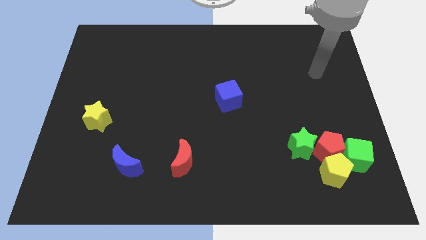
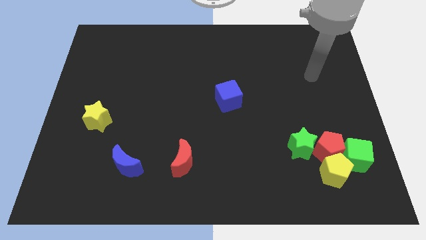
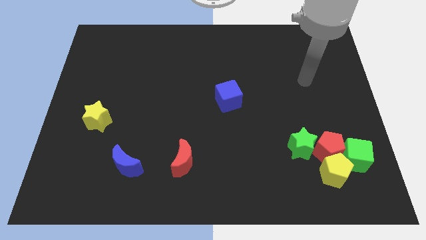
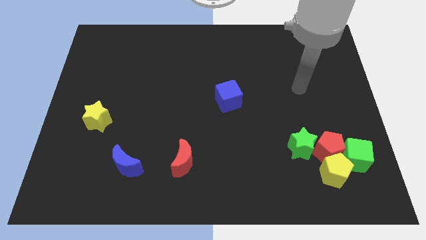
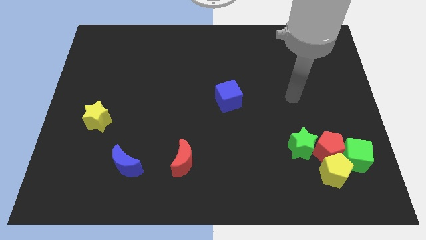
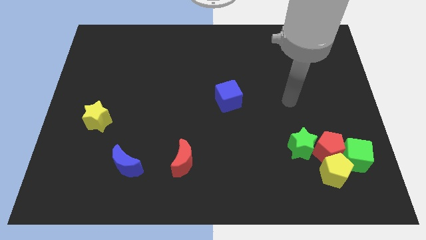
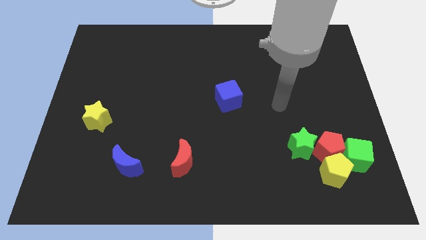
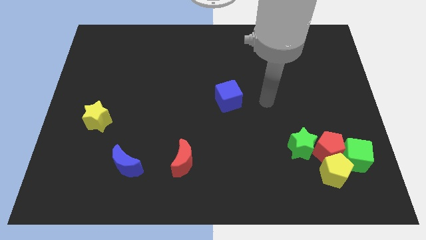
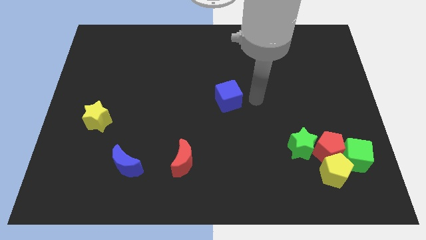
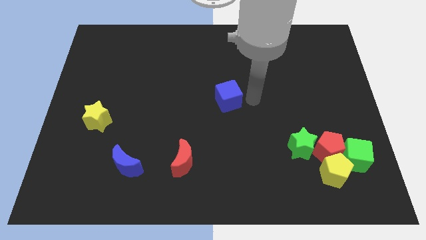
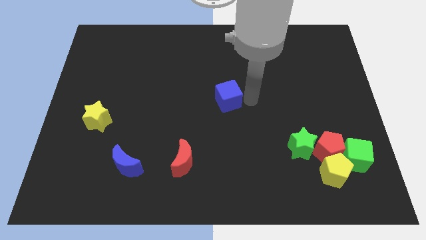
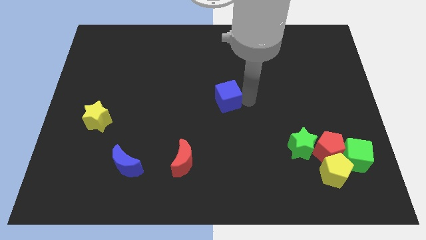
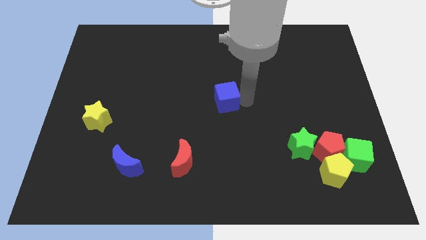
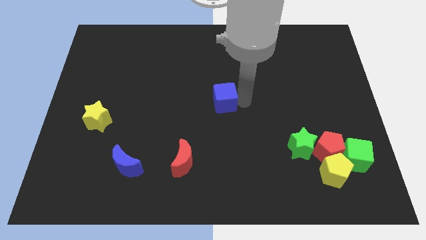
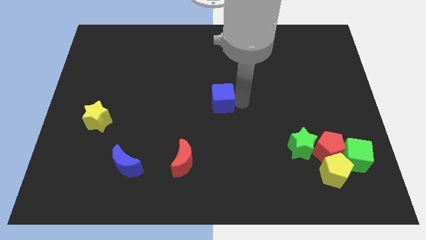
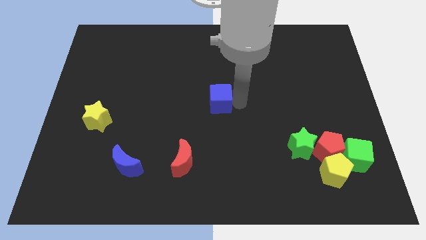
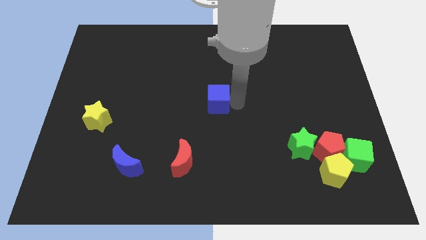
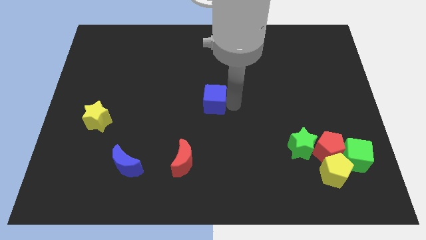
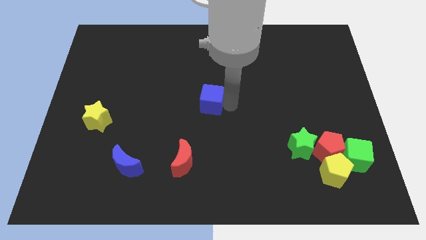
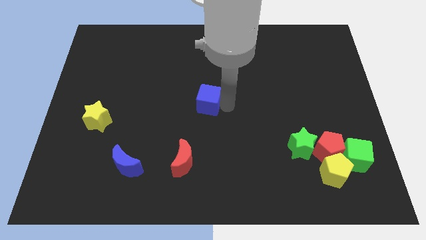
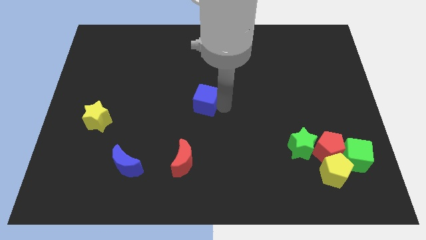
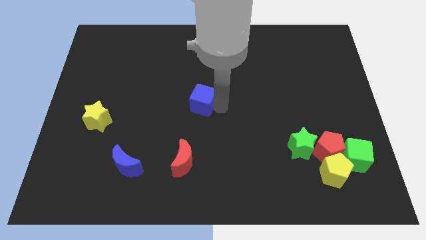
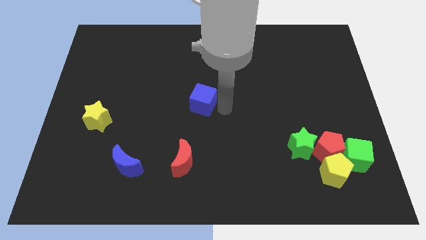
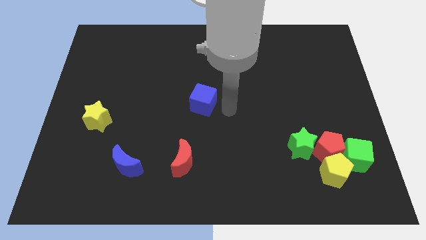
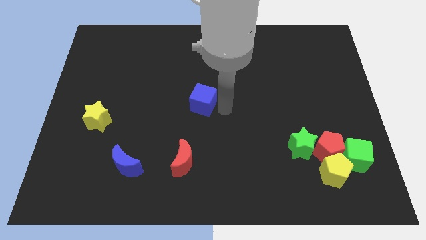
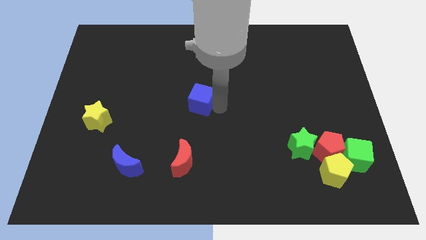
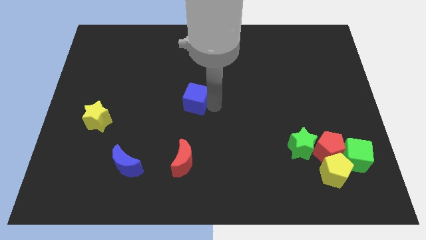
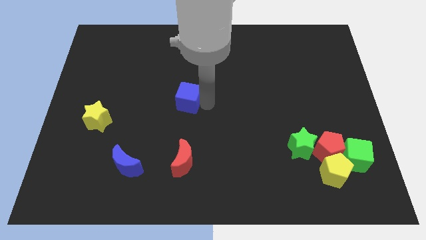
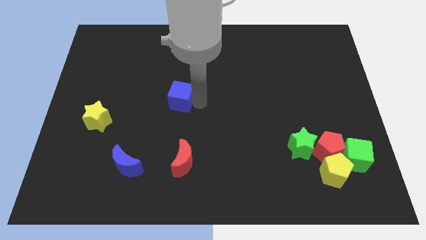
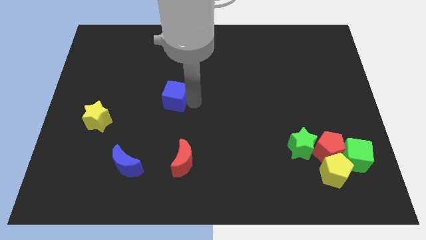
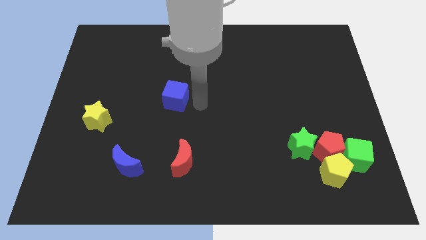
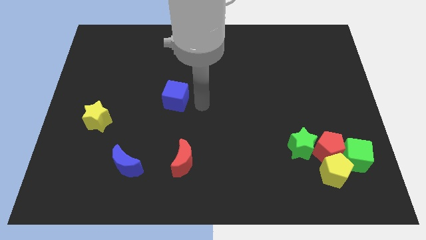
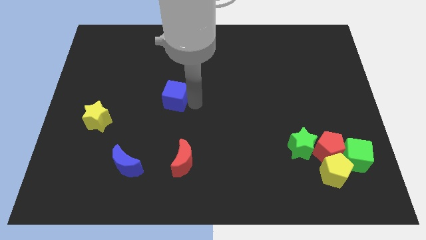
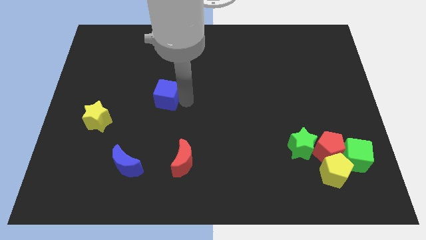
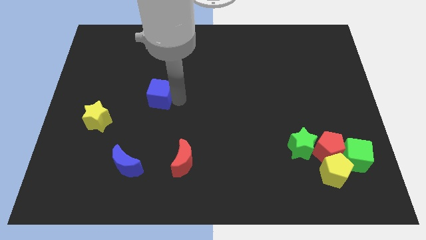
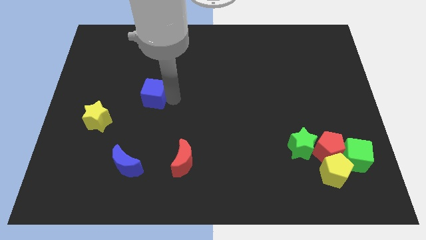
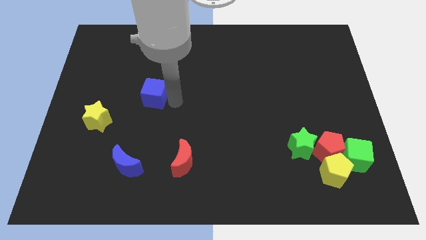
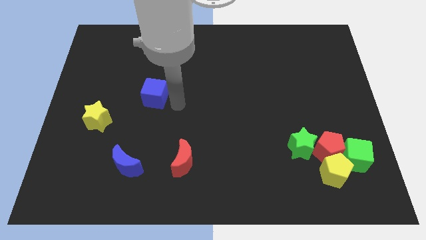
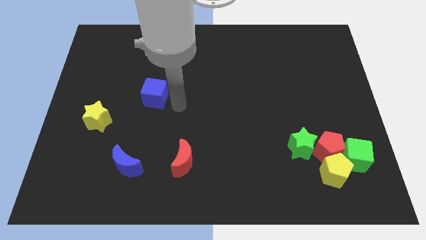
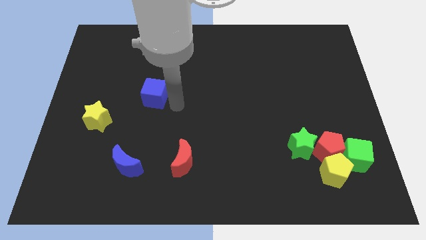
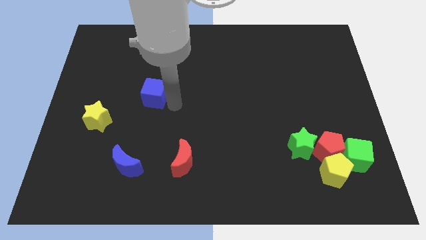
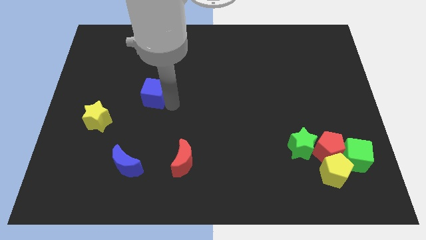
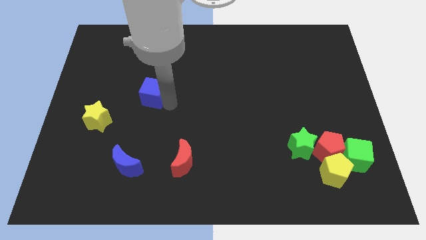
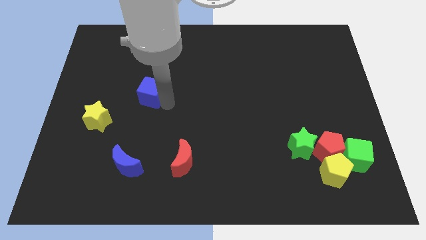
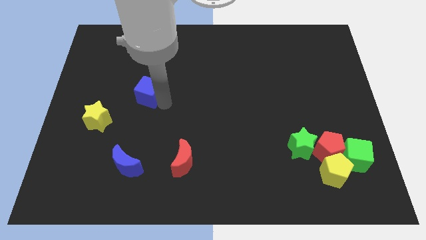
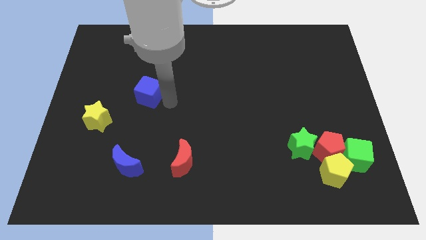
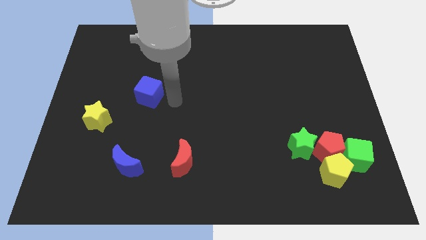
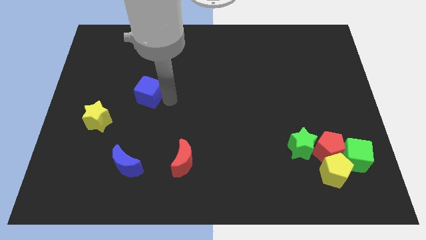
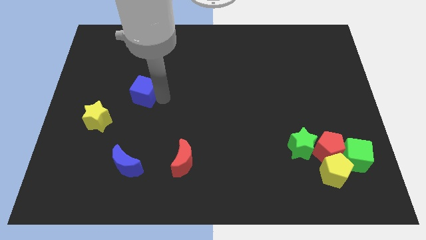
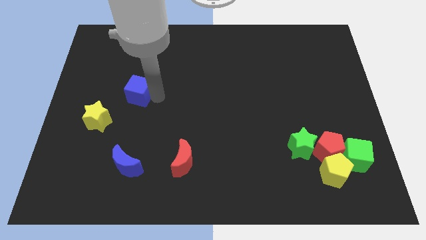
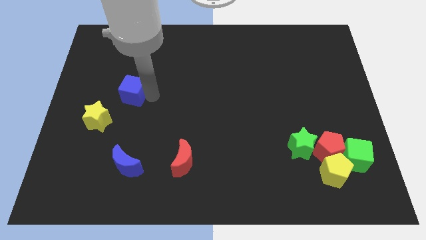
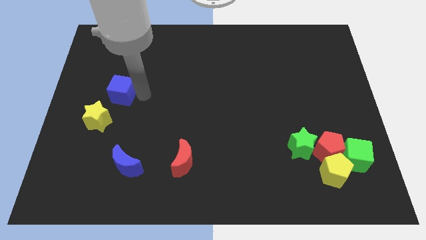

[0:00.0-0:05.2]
put the blue cube above the yellow star

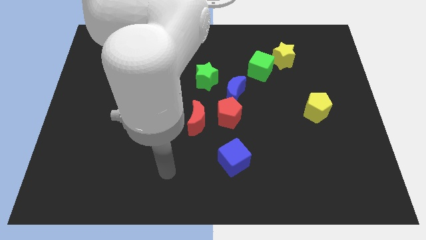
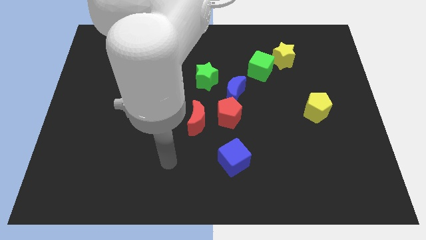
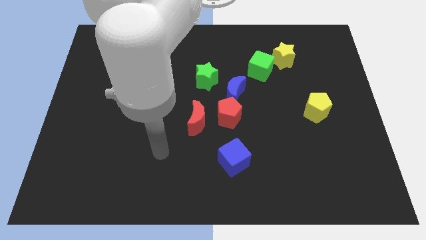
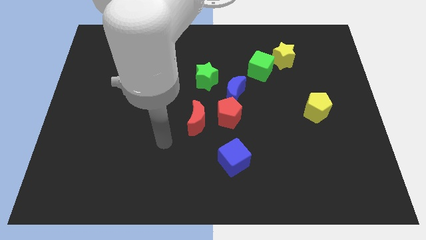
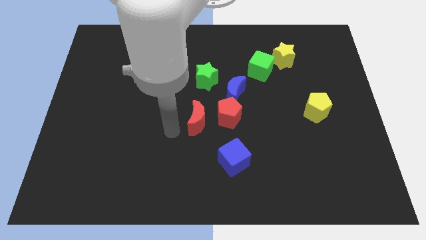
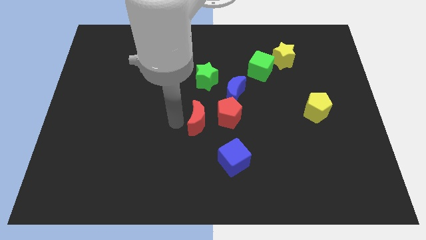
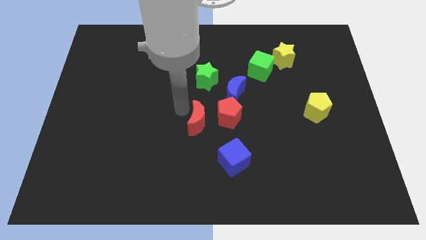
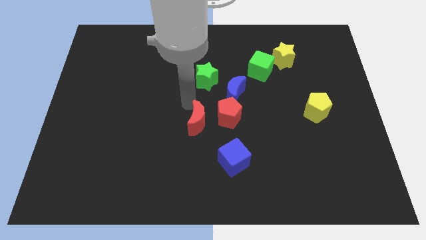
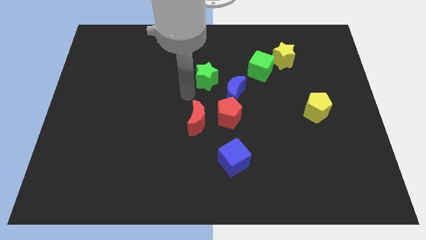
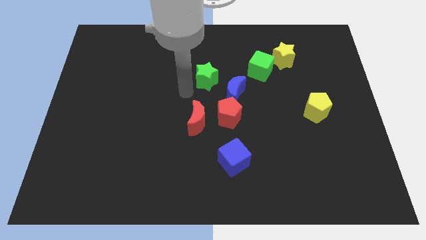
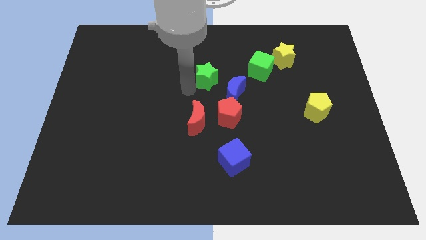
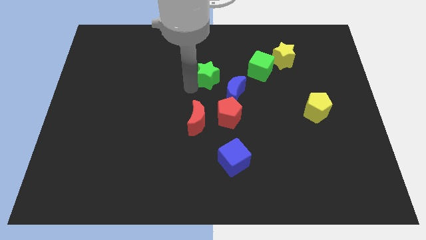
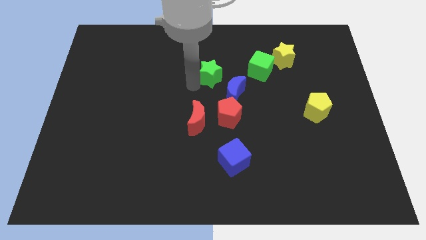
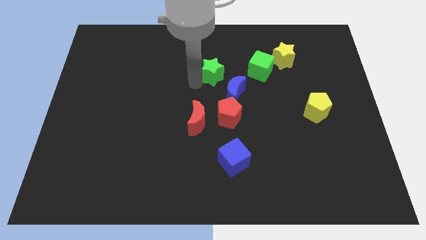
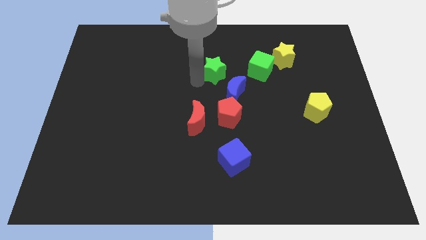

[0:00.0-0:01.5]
push the green star above the blue moon
